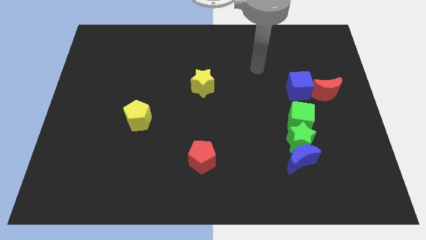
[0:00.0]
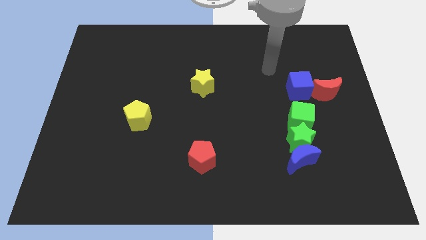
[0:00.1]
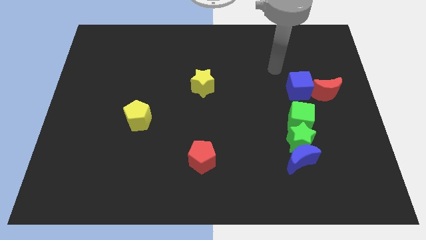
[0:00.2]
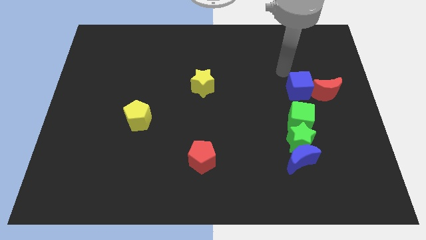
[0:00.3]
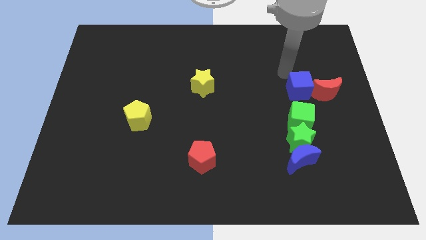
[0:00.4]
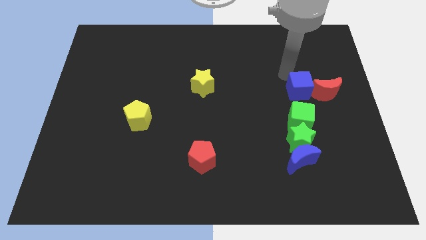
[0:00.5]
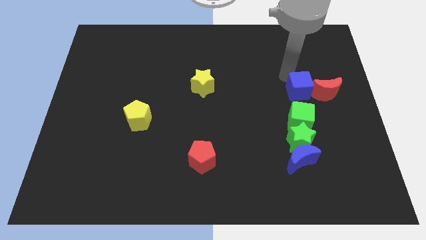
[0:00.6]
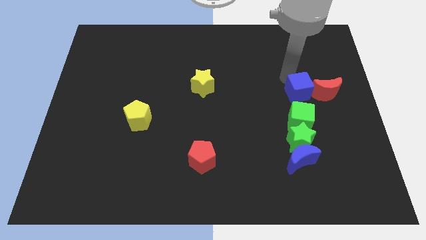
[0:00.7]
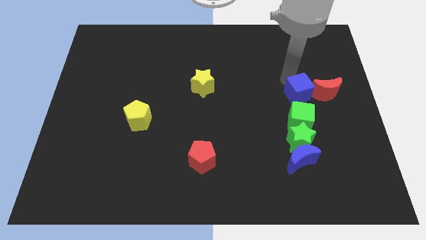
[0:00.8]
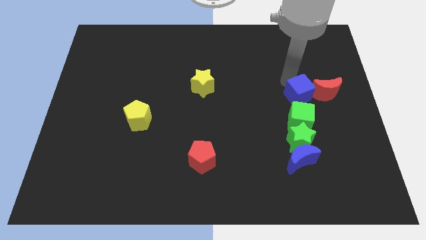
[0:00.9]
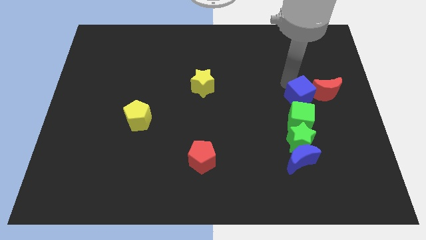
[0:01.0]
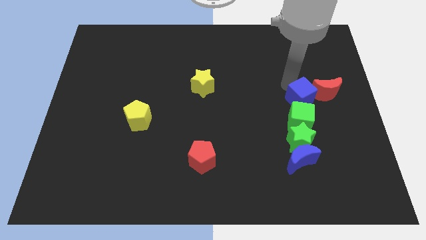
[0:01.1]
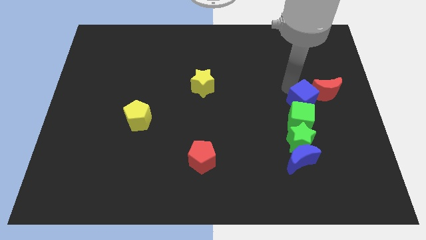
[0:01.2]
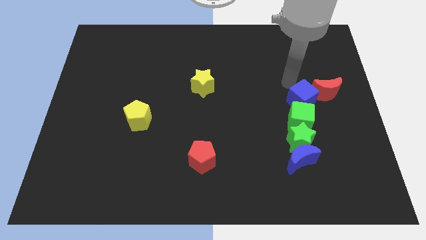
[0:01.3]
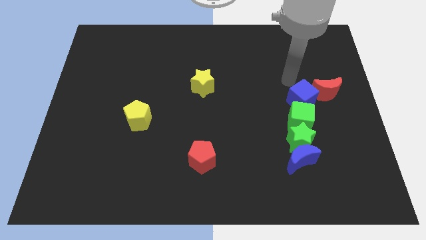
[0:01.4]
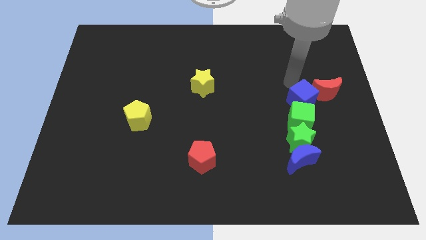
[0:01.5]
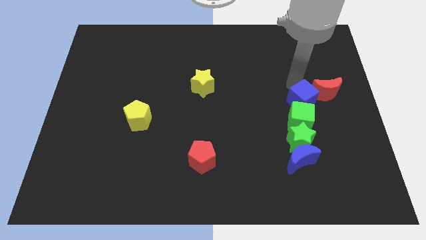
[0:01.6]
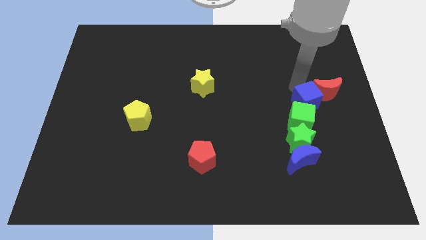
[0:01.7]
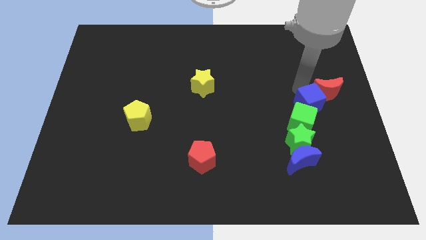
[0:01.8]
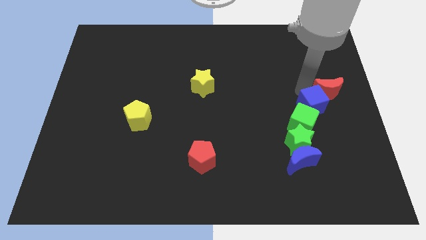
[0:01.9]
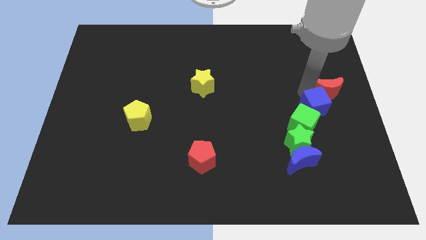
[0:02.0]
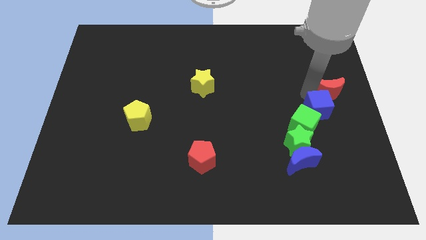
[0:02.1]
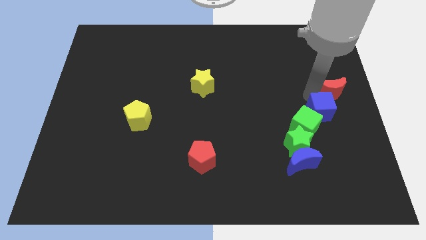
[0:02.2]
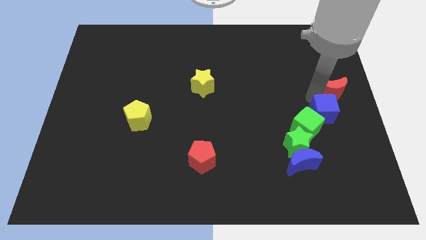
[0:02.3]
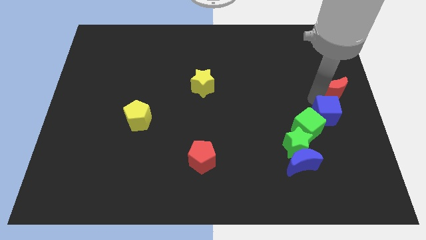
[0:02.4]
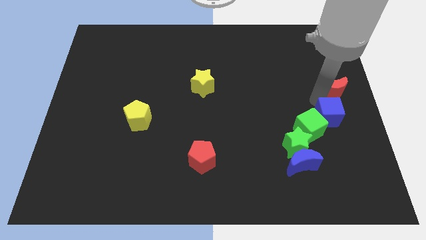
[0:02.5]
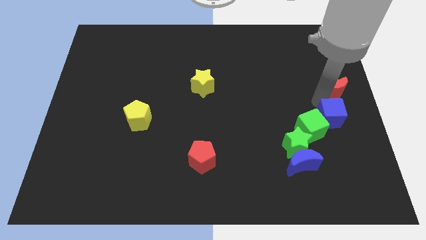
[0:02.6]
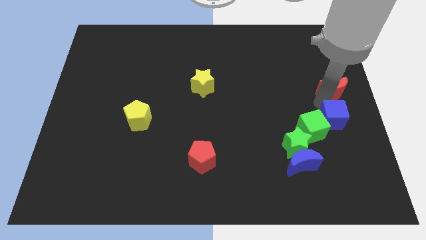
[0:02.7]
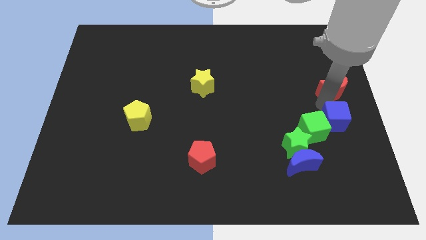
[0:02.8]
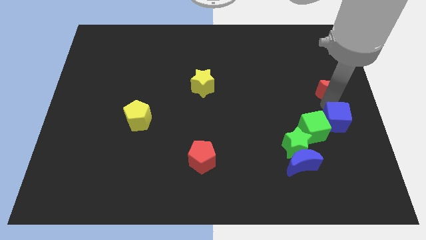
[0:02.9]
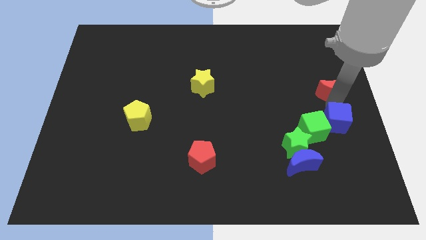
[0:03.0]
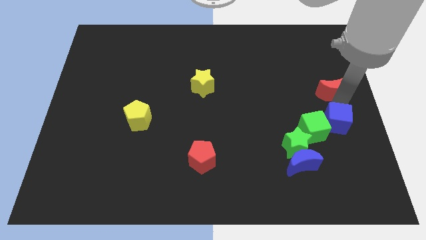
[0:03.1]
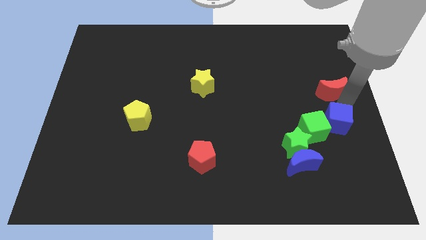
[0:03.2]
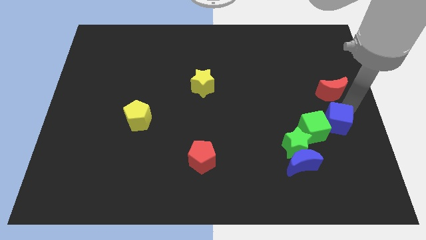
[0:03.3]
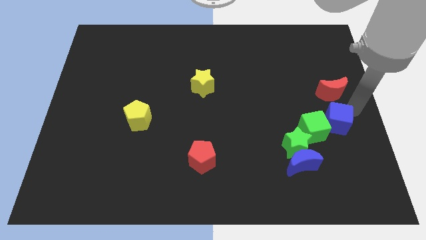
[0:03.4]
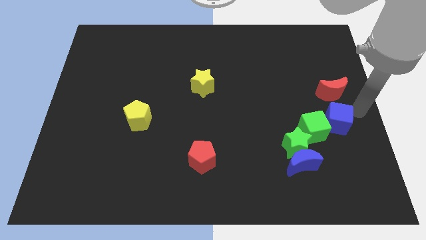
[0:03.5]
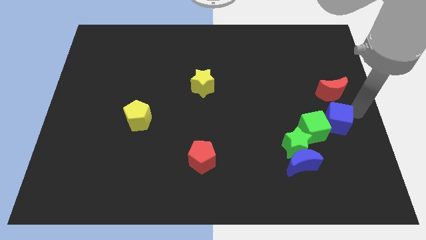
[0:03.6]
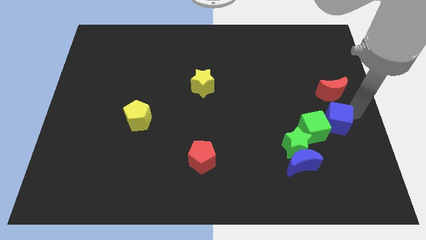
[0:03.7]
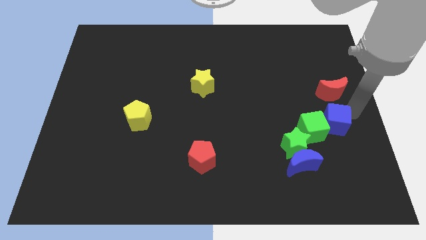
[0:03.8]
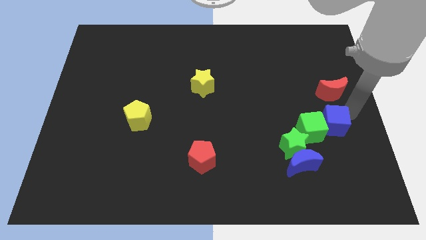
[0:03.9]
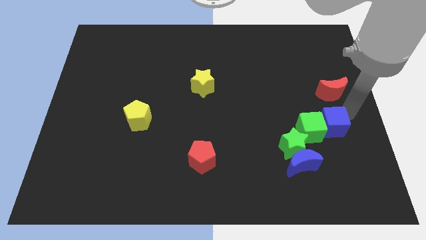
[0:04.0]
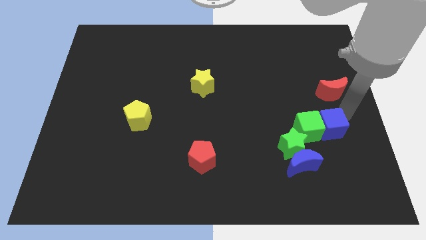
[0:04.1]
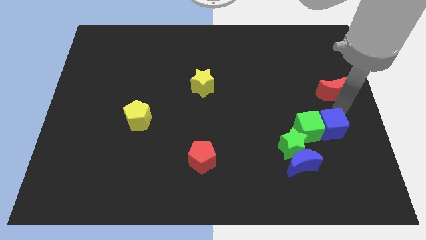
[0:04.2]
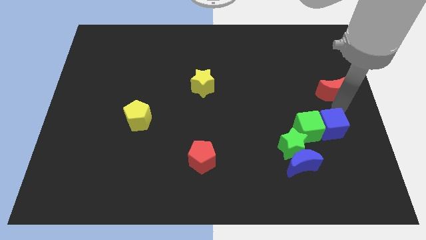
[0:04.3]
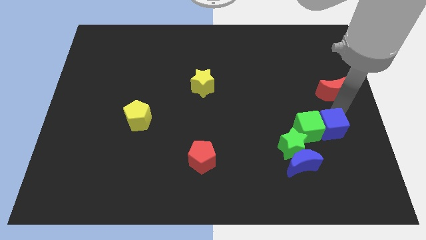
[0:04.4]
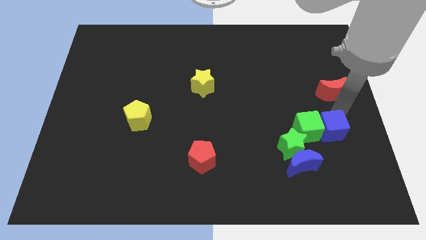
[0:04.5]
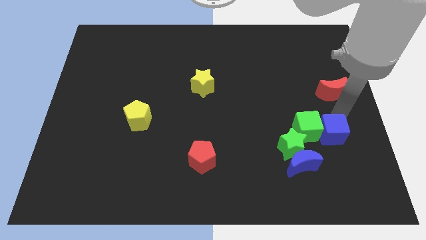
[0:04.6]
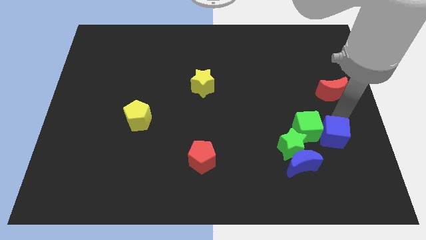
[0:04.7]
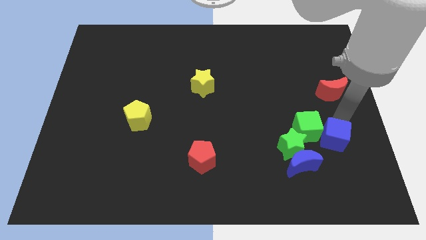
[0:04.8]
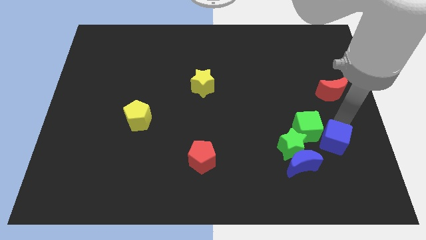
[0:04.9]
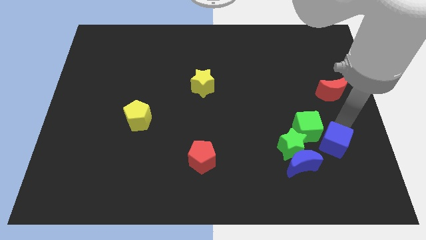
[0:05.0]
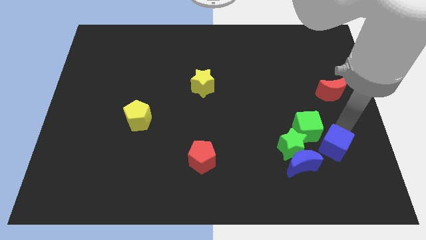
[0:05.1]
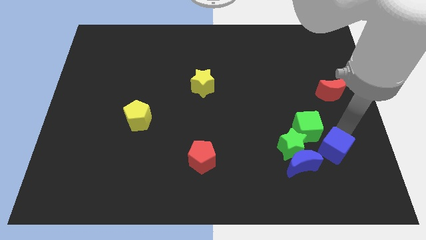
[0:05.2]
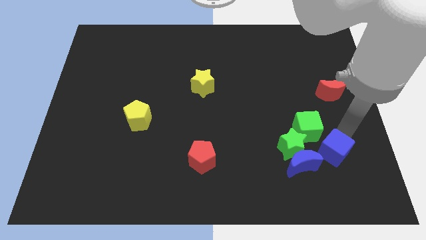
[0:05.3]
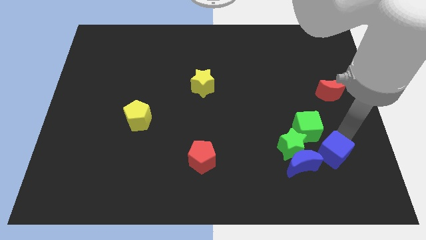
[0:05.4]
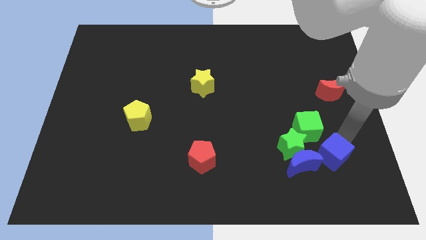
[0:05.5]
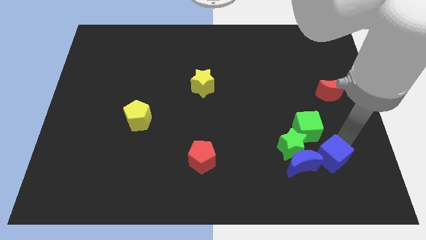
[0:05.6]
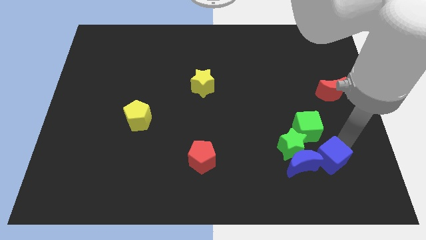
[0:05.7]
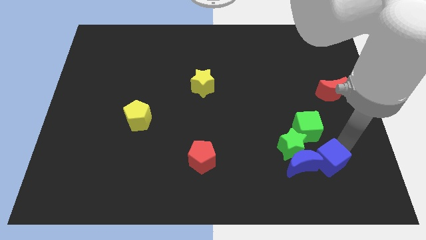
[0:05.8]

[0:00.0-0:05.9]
put the blue cube to the blue moon

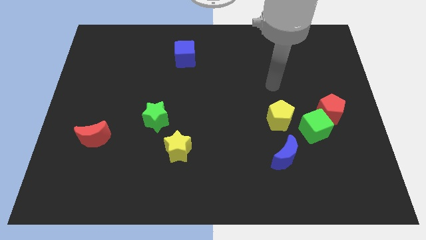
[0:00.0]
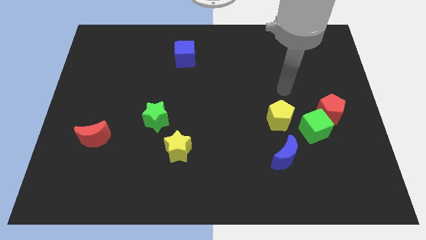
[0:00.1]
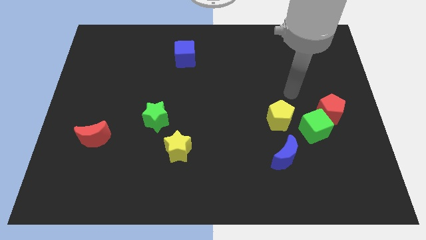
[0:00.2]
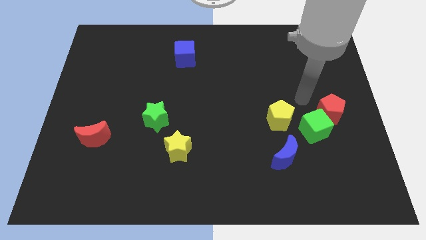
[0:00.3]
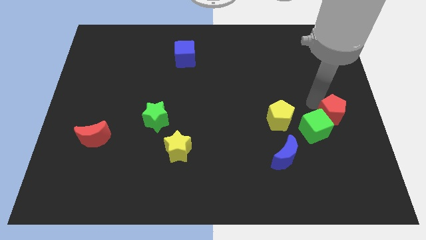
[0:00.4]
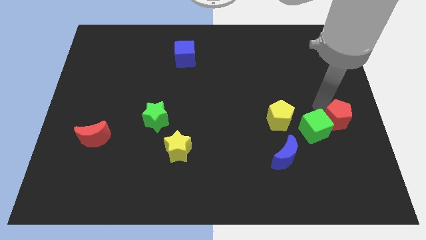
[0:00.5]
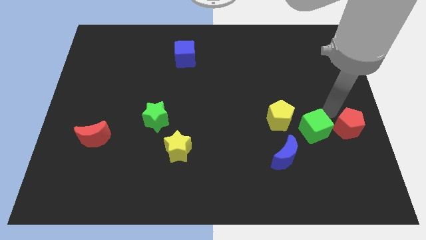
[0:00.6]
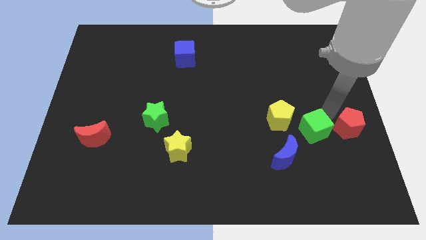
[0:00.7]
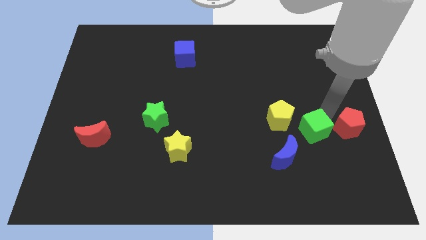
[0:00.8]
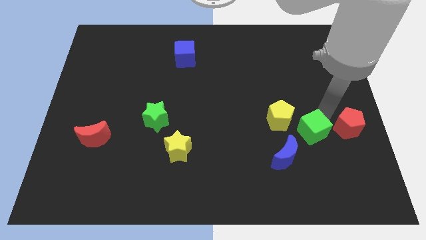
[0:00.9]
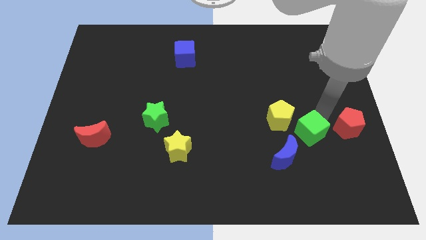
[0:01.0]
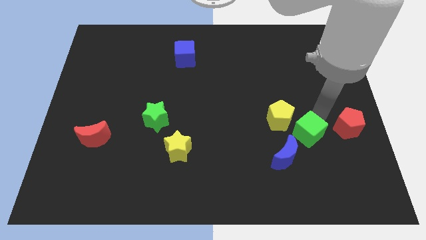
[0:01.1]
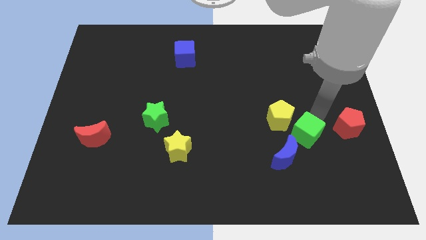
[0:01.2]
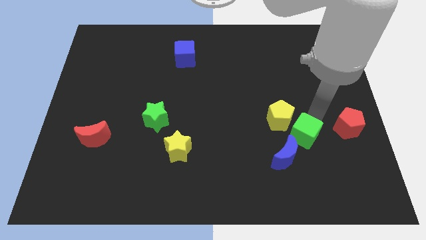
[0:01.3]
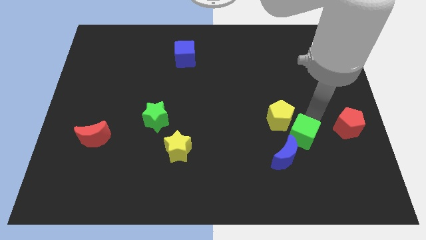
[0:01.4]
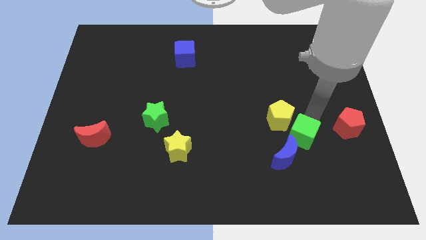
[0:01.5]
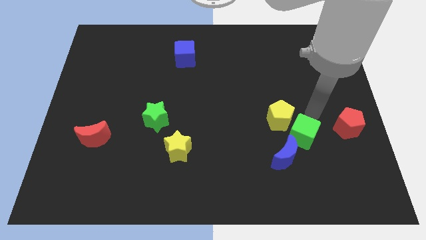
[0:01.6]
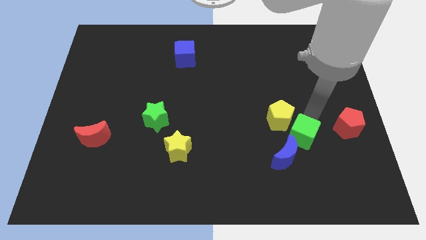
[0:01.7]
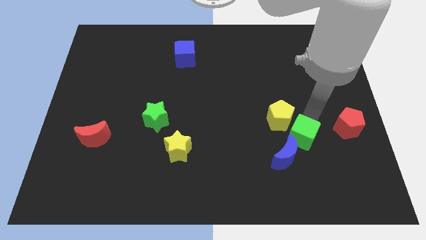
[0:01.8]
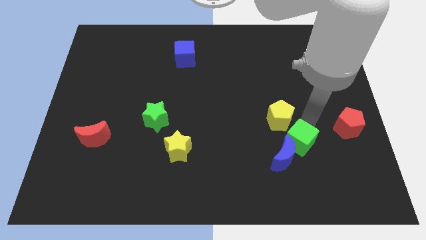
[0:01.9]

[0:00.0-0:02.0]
slide the green cube next to the blue moon
